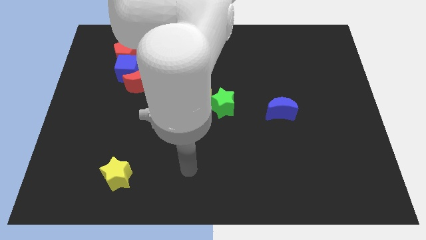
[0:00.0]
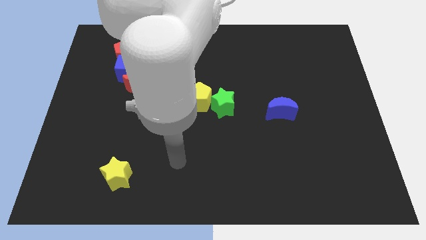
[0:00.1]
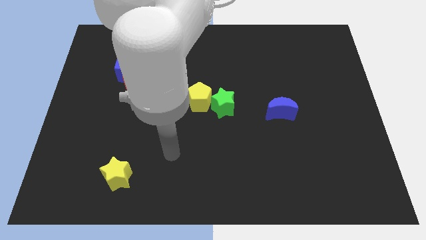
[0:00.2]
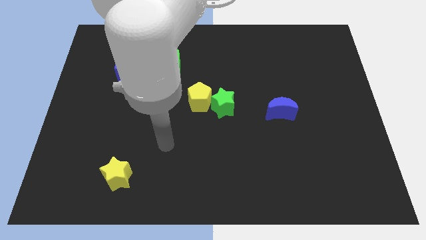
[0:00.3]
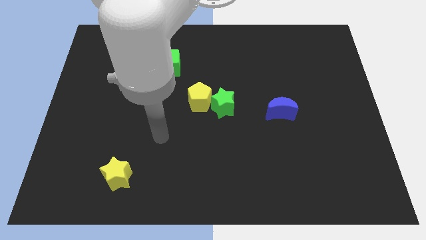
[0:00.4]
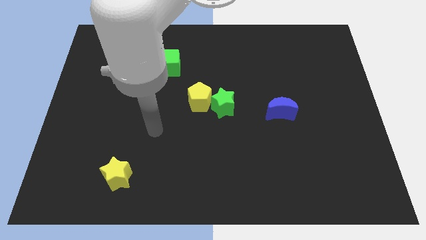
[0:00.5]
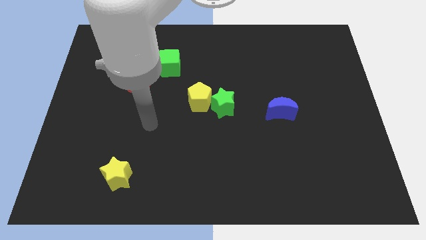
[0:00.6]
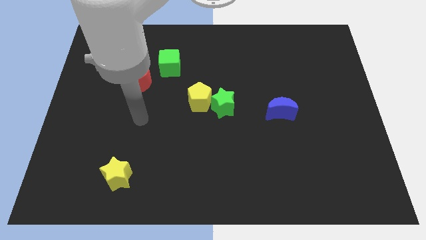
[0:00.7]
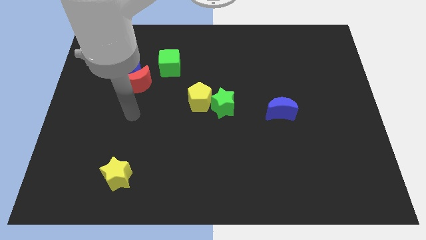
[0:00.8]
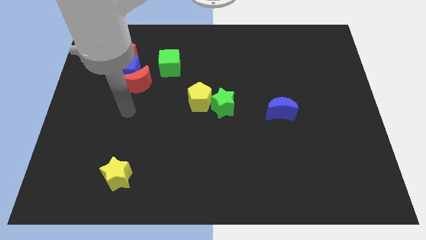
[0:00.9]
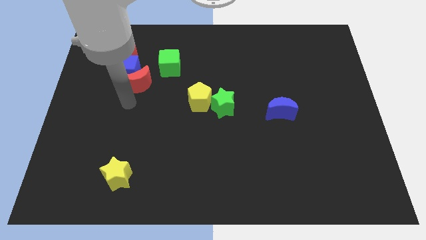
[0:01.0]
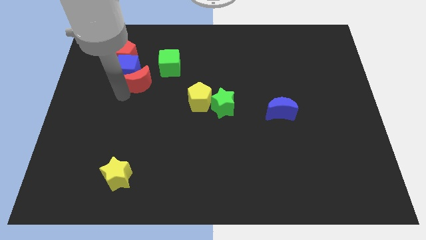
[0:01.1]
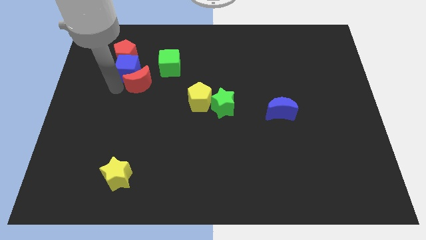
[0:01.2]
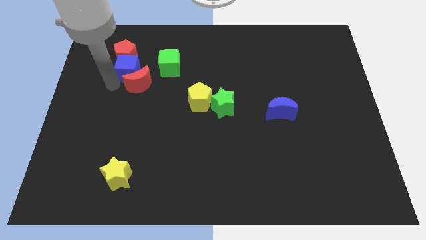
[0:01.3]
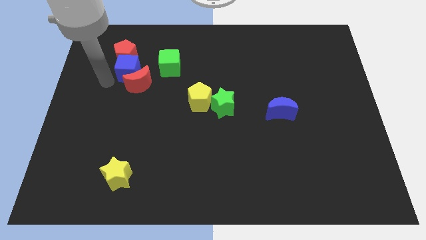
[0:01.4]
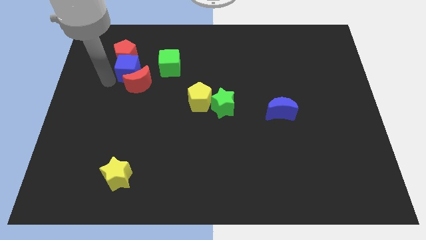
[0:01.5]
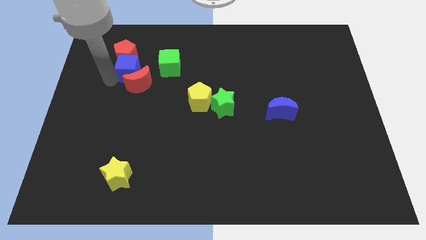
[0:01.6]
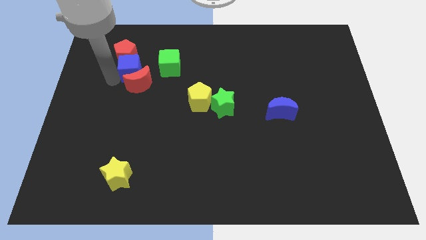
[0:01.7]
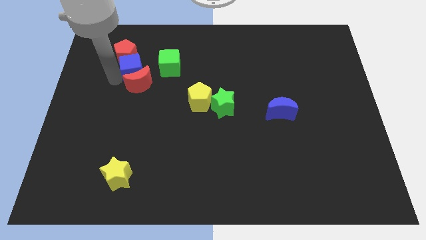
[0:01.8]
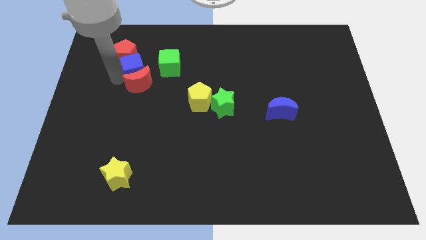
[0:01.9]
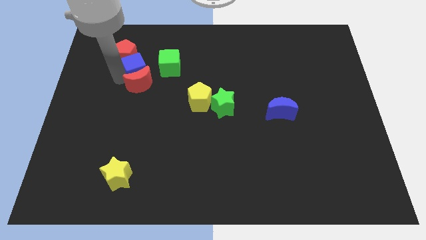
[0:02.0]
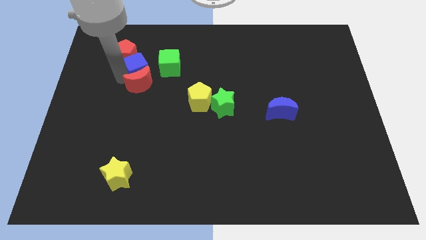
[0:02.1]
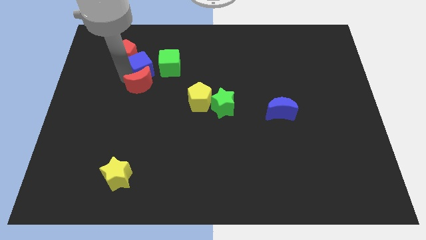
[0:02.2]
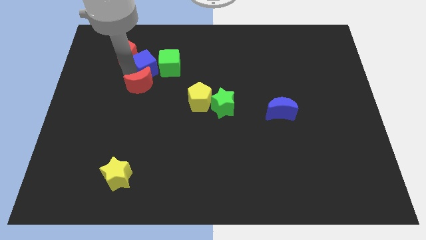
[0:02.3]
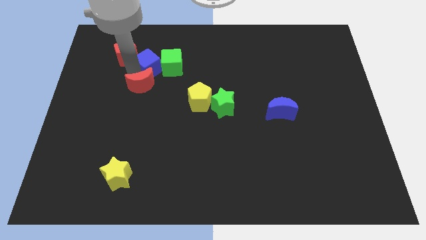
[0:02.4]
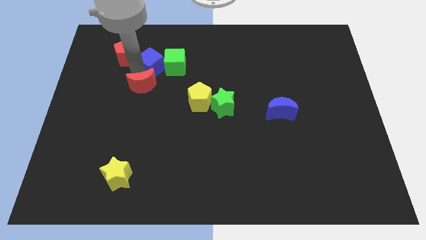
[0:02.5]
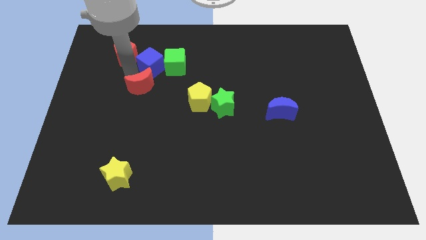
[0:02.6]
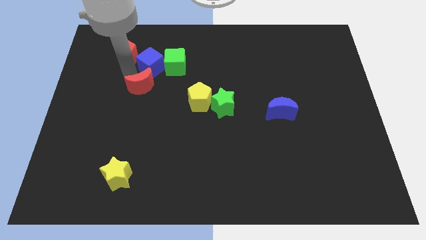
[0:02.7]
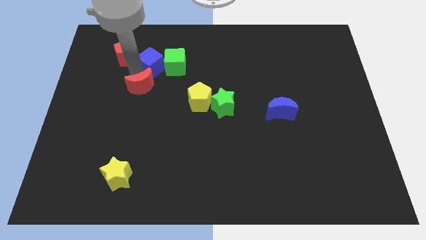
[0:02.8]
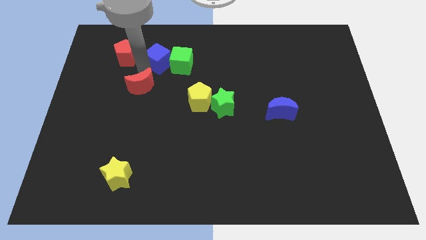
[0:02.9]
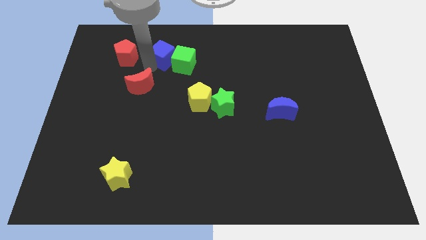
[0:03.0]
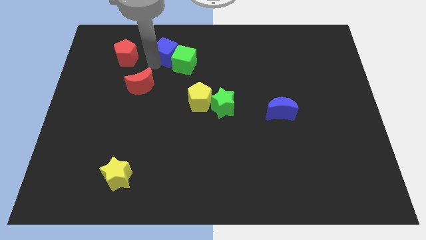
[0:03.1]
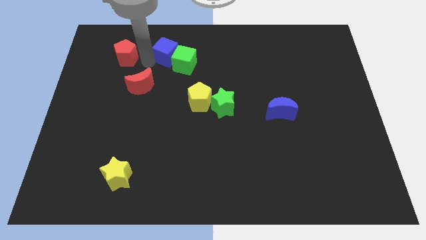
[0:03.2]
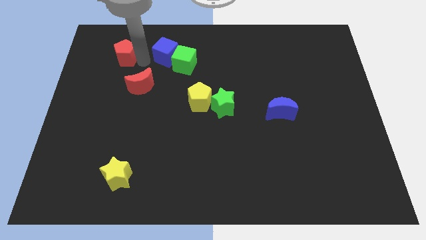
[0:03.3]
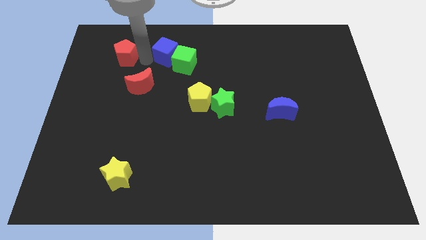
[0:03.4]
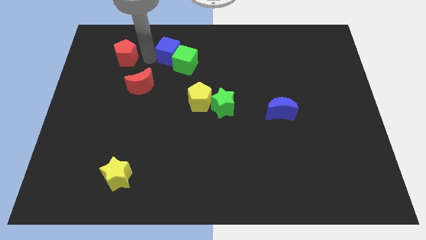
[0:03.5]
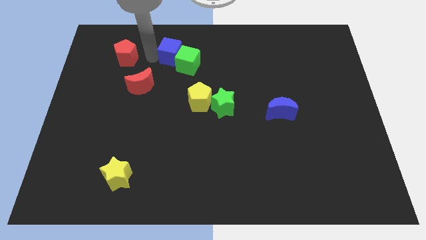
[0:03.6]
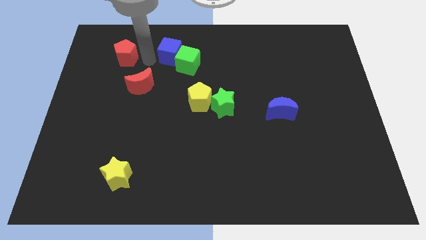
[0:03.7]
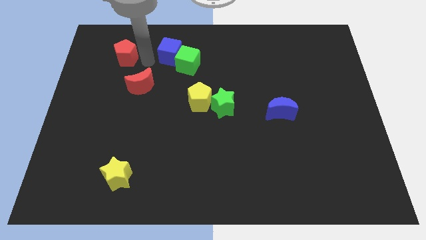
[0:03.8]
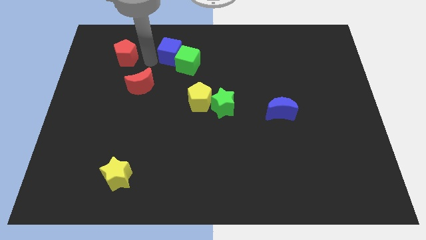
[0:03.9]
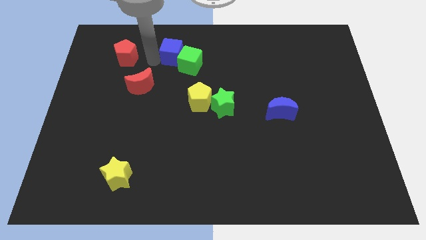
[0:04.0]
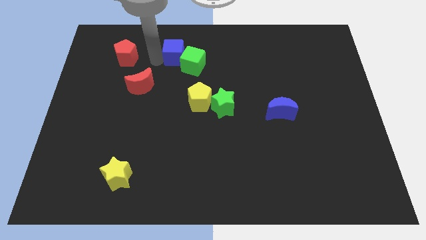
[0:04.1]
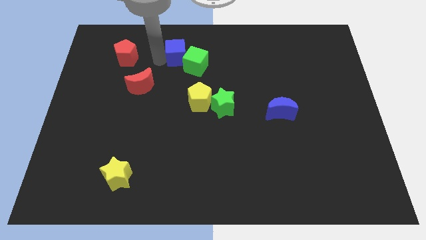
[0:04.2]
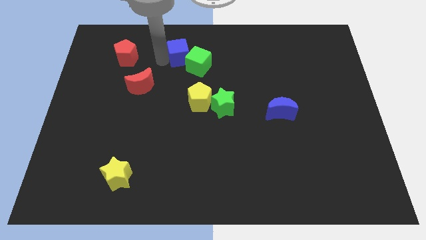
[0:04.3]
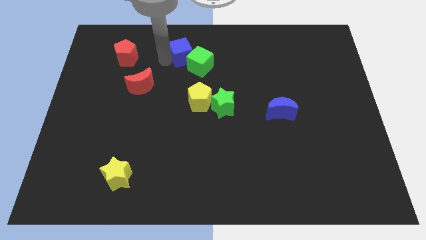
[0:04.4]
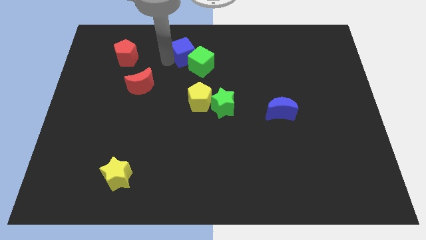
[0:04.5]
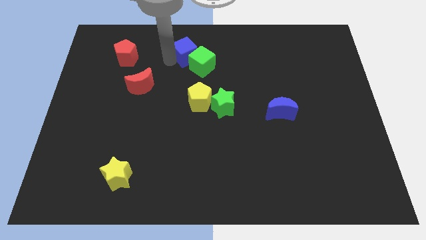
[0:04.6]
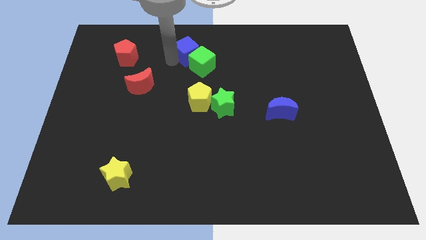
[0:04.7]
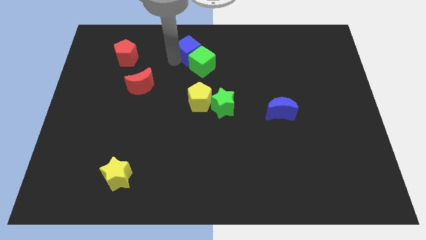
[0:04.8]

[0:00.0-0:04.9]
move the blue cube to the top side

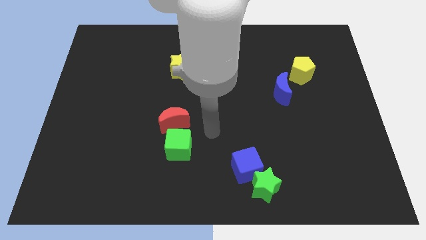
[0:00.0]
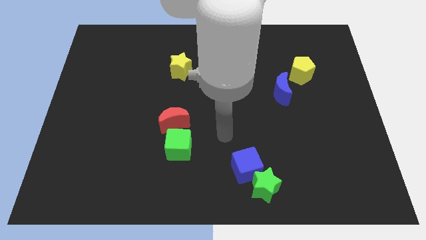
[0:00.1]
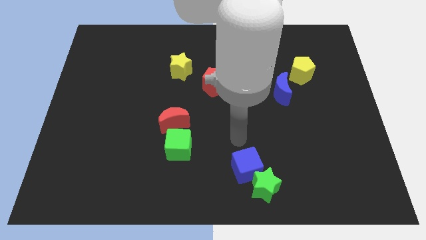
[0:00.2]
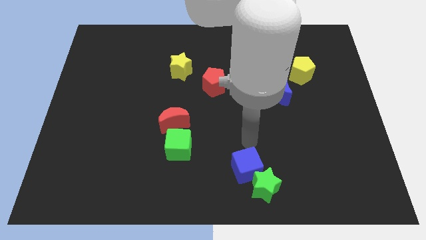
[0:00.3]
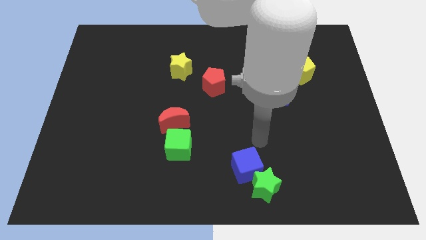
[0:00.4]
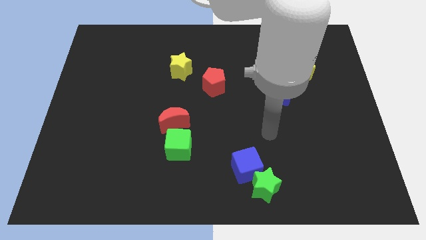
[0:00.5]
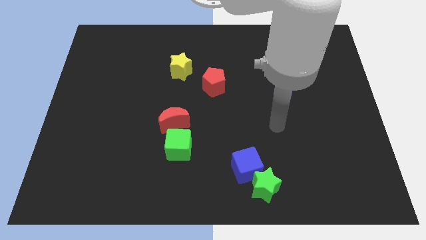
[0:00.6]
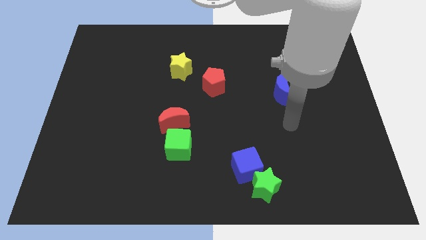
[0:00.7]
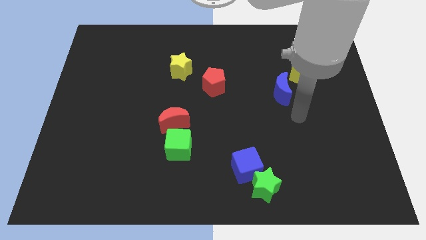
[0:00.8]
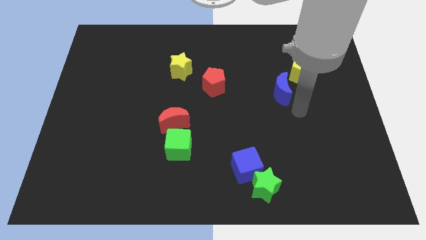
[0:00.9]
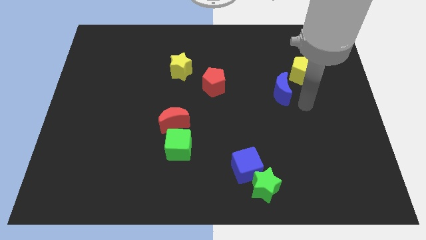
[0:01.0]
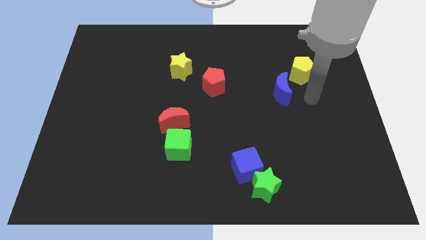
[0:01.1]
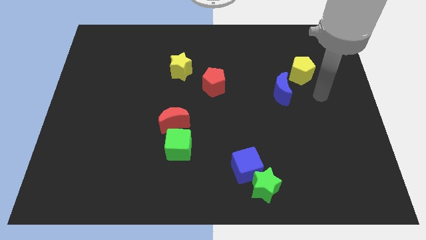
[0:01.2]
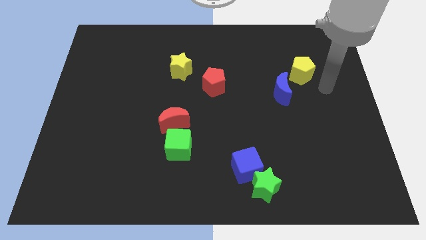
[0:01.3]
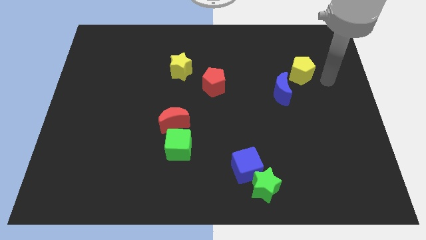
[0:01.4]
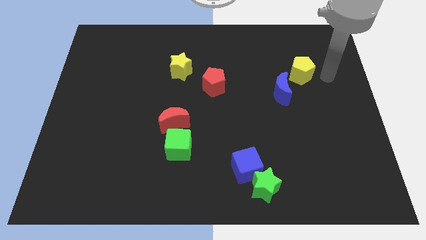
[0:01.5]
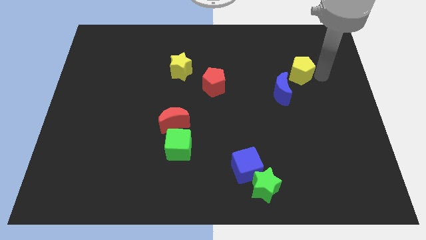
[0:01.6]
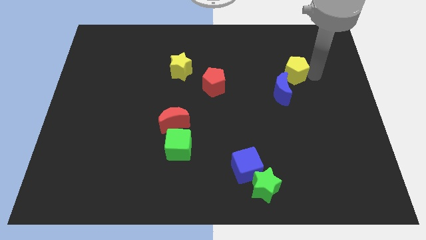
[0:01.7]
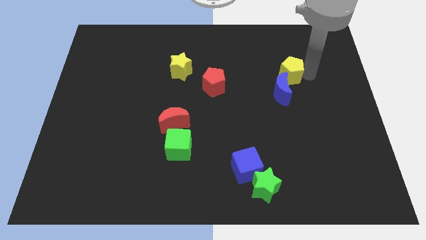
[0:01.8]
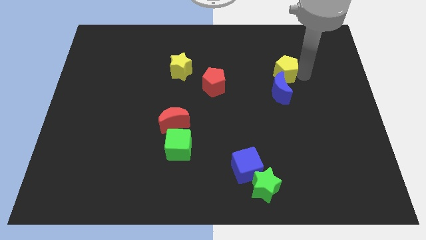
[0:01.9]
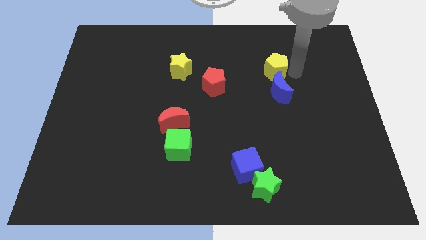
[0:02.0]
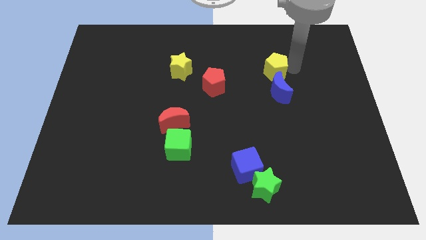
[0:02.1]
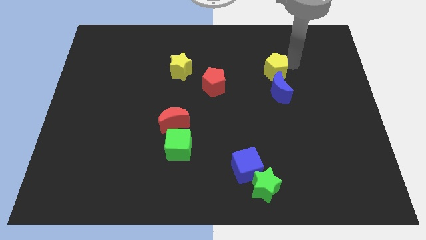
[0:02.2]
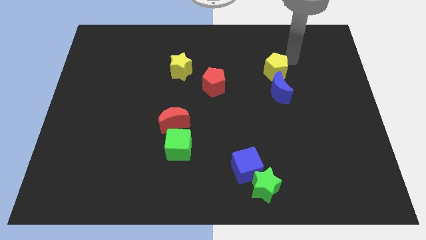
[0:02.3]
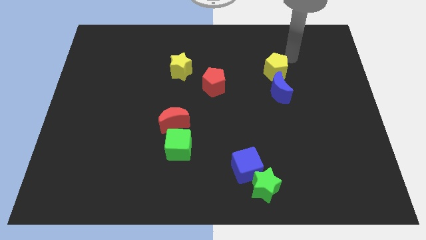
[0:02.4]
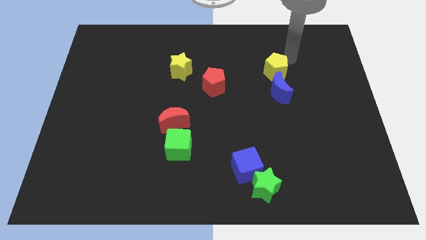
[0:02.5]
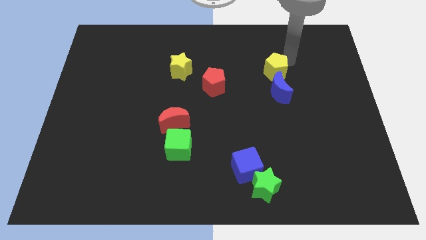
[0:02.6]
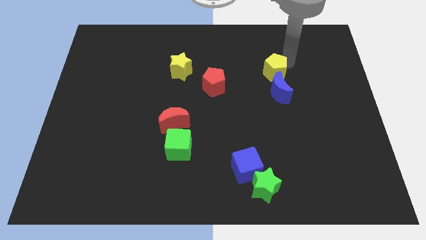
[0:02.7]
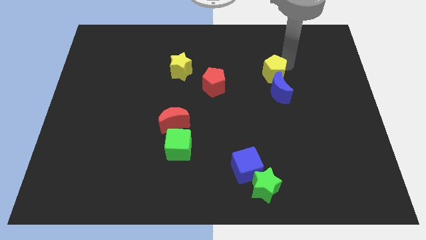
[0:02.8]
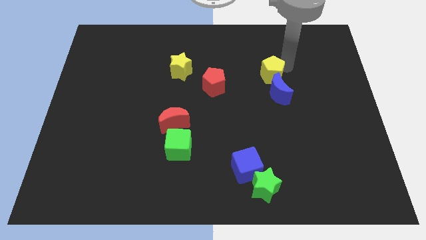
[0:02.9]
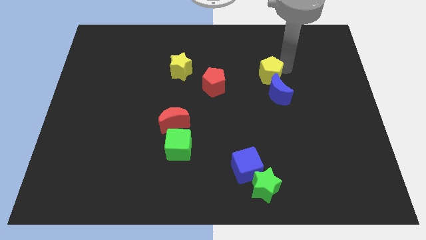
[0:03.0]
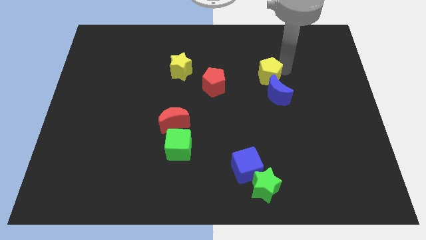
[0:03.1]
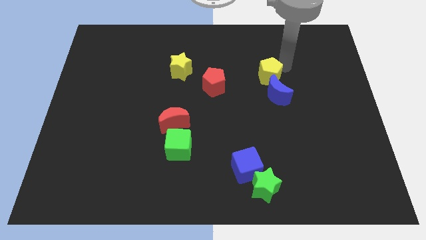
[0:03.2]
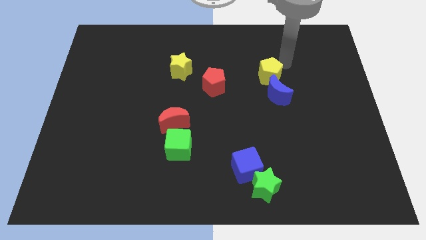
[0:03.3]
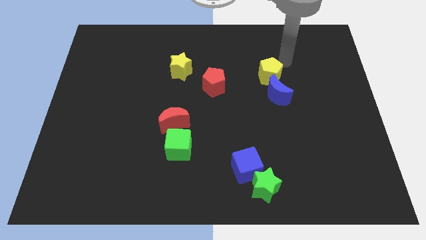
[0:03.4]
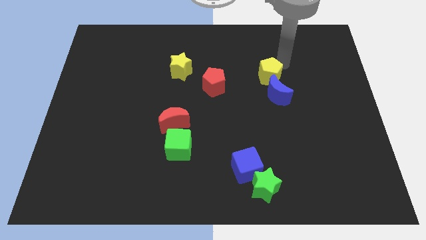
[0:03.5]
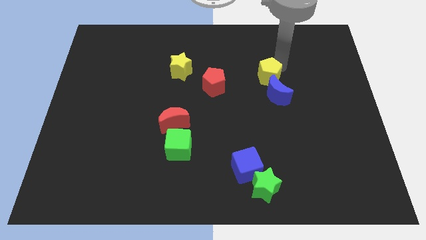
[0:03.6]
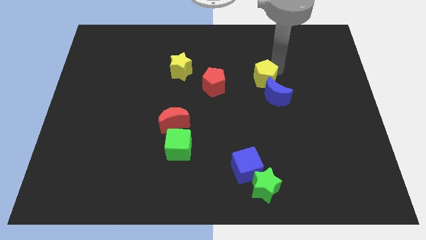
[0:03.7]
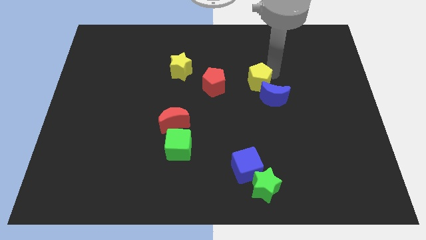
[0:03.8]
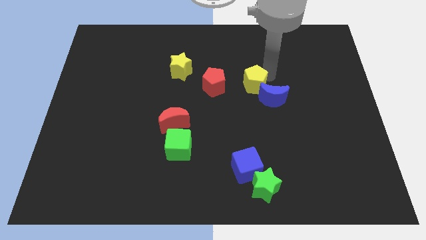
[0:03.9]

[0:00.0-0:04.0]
put the yellow pentagon to the middle of the board
